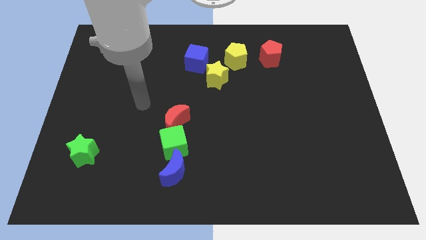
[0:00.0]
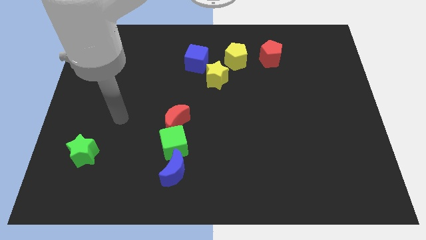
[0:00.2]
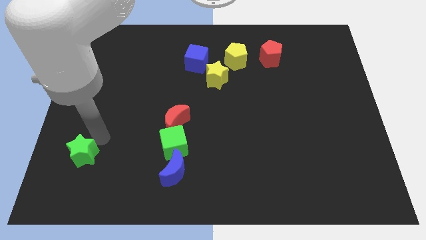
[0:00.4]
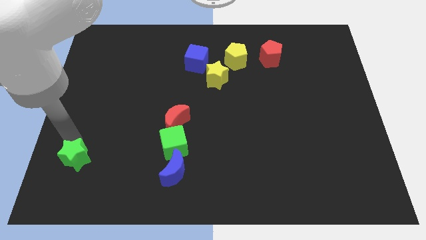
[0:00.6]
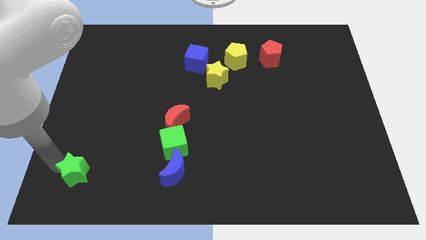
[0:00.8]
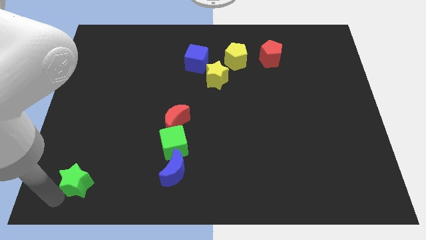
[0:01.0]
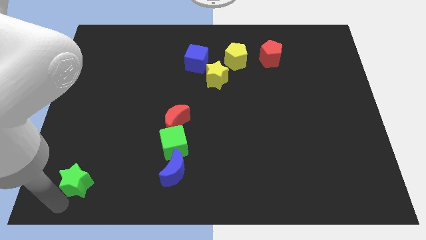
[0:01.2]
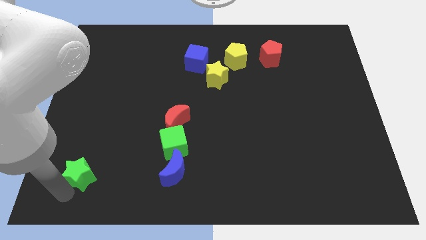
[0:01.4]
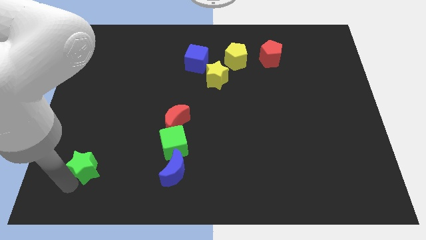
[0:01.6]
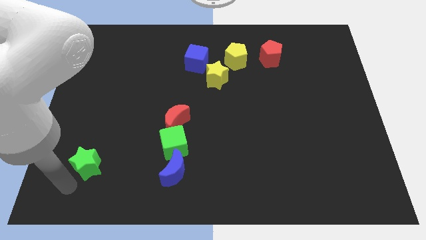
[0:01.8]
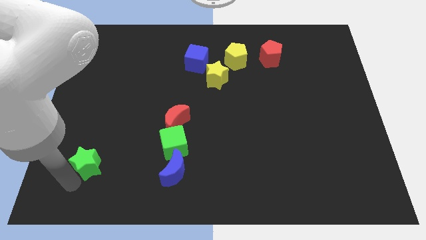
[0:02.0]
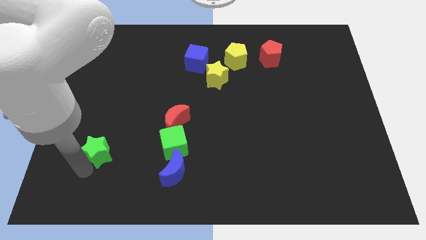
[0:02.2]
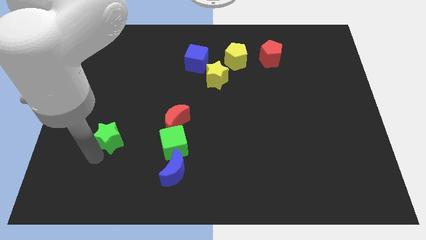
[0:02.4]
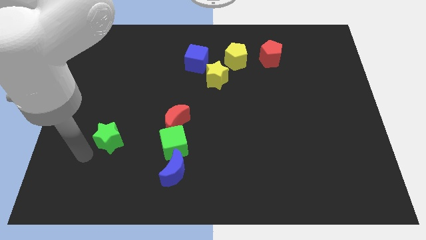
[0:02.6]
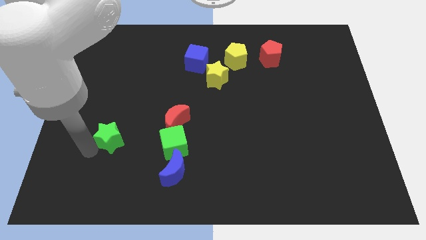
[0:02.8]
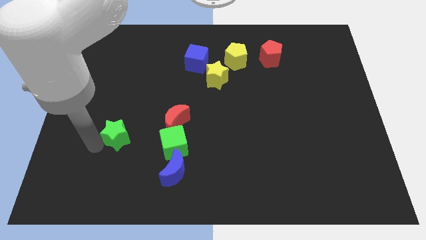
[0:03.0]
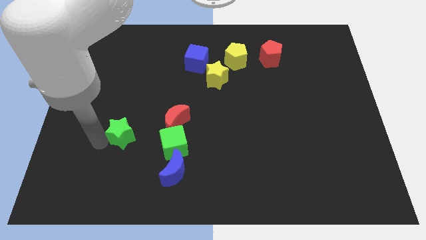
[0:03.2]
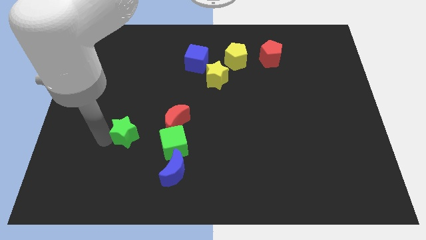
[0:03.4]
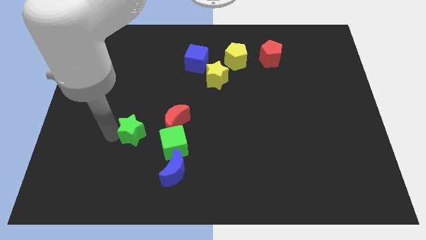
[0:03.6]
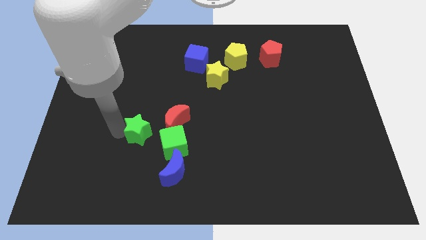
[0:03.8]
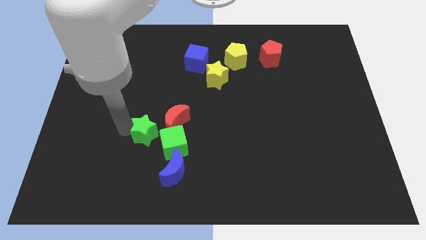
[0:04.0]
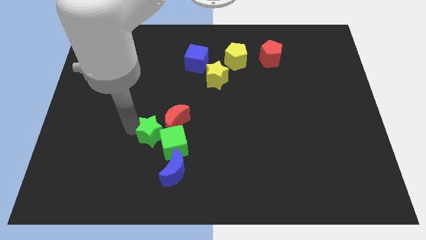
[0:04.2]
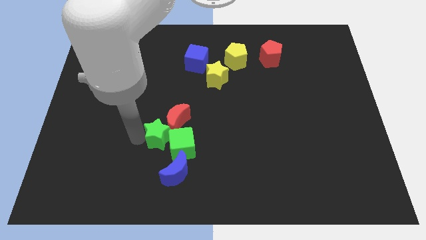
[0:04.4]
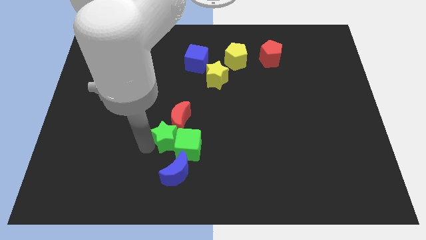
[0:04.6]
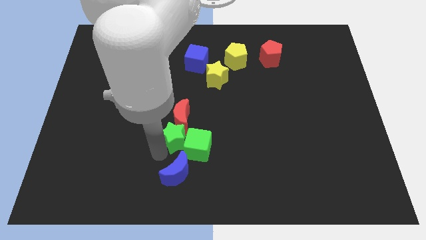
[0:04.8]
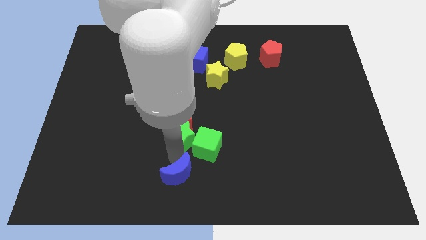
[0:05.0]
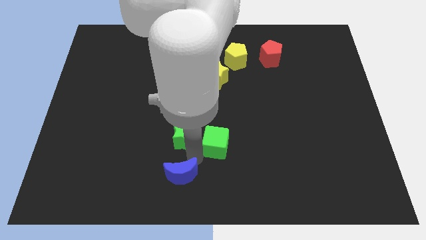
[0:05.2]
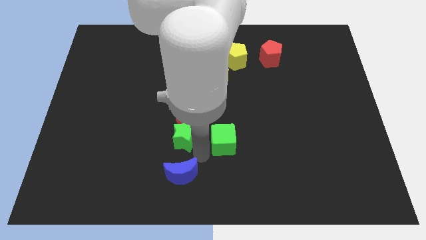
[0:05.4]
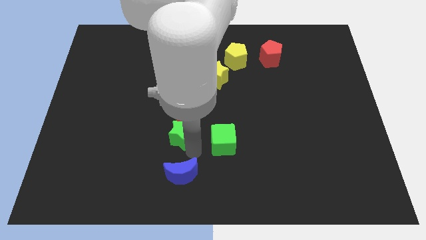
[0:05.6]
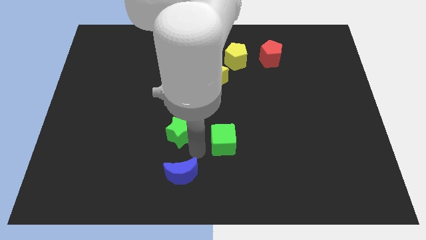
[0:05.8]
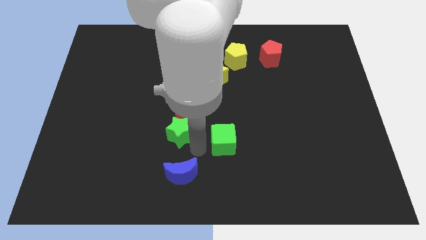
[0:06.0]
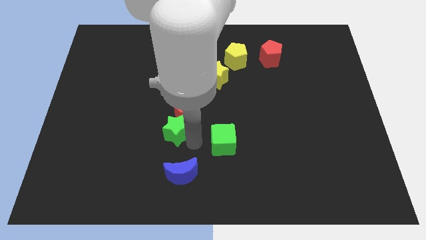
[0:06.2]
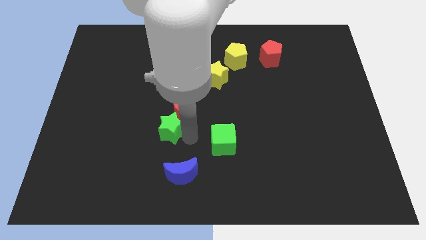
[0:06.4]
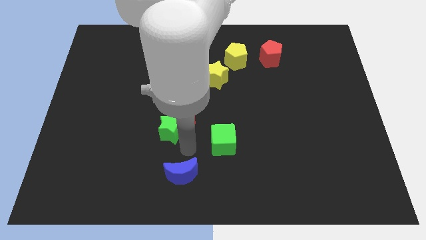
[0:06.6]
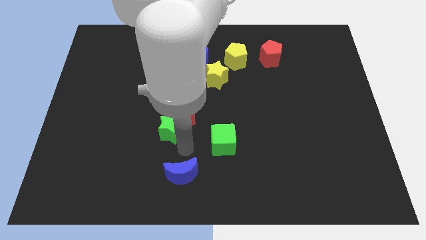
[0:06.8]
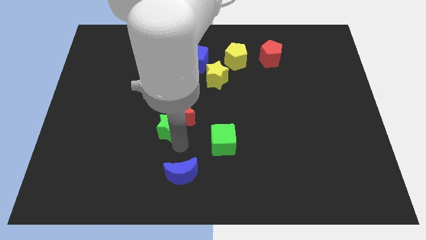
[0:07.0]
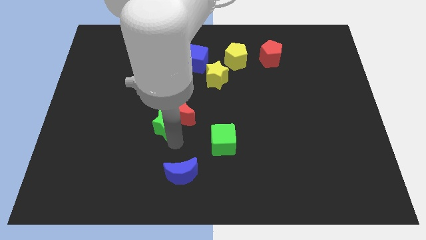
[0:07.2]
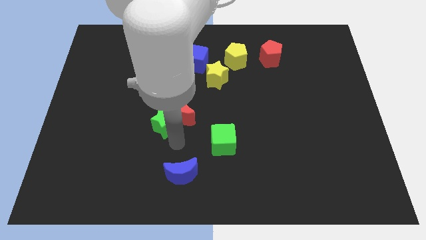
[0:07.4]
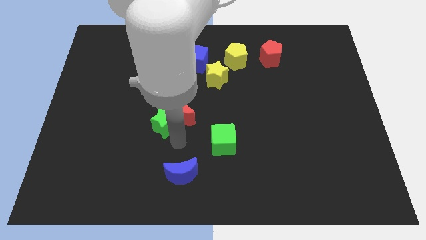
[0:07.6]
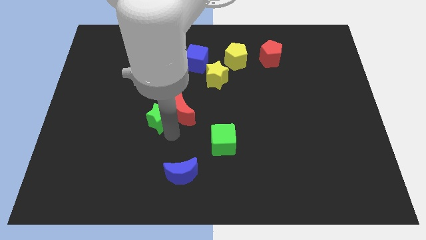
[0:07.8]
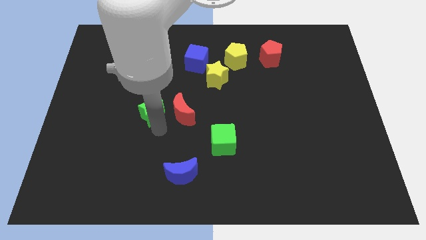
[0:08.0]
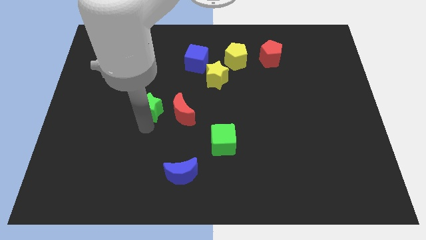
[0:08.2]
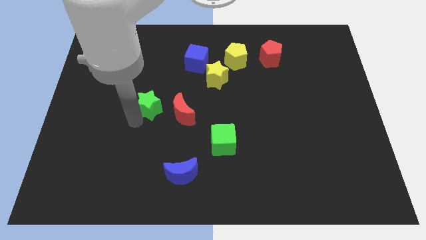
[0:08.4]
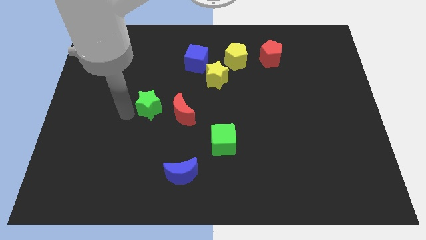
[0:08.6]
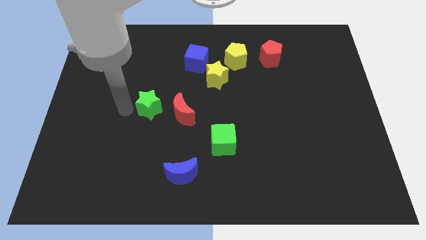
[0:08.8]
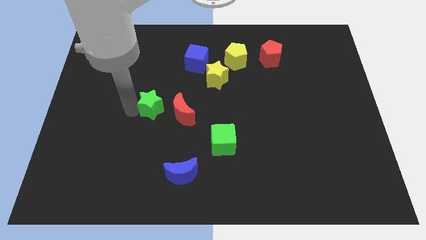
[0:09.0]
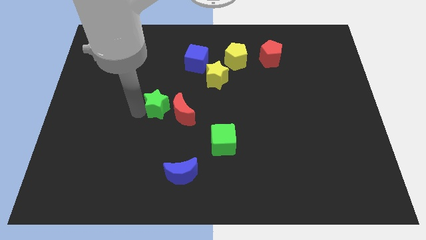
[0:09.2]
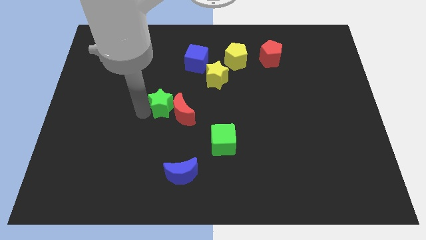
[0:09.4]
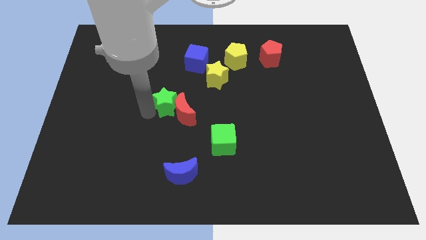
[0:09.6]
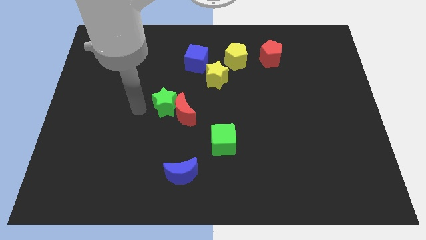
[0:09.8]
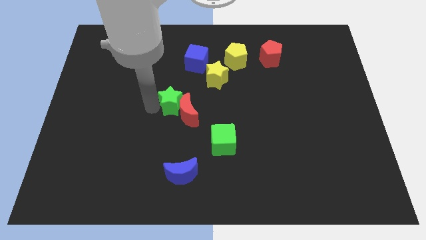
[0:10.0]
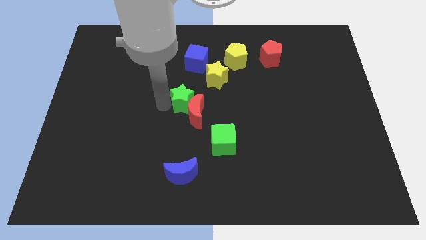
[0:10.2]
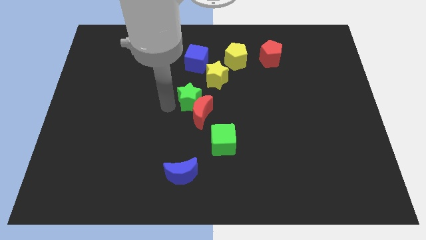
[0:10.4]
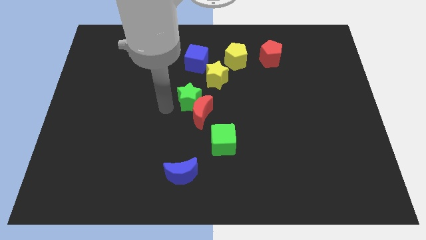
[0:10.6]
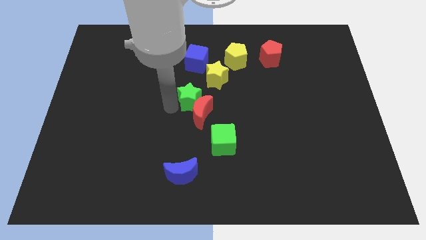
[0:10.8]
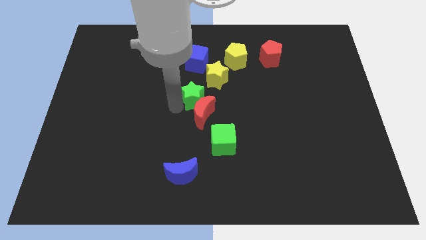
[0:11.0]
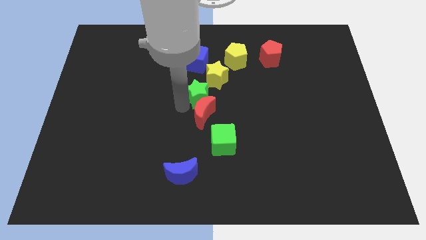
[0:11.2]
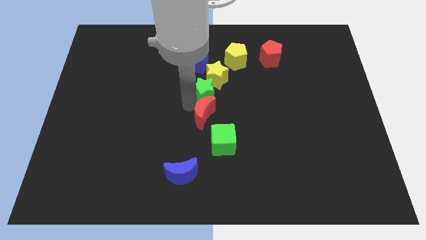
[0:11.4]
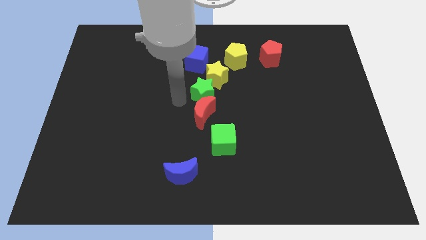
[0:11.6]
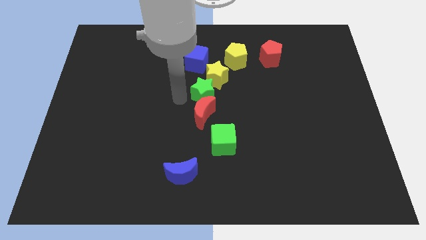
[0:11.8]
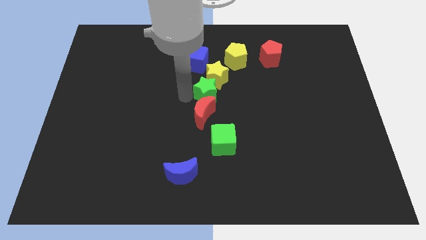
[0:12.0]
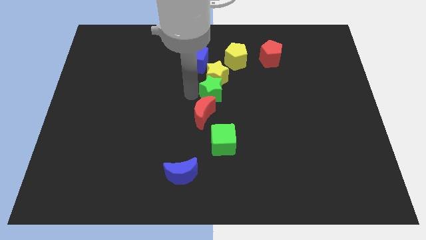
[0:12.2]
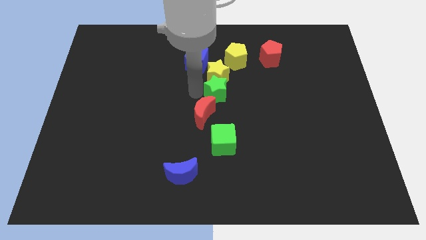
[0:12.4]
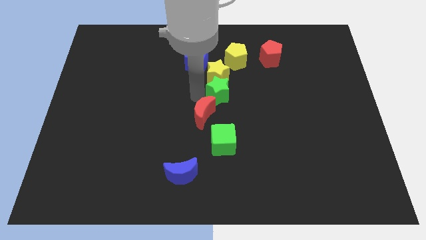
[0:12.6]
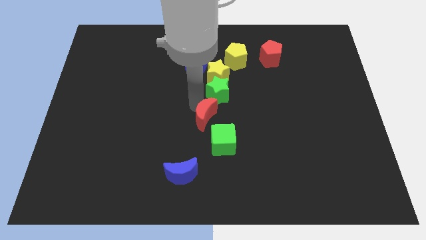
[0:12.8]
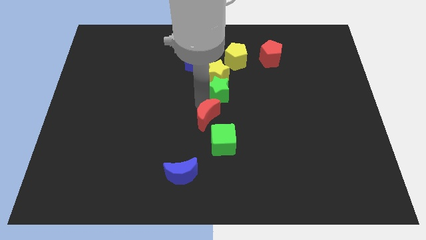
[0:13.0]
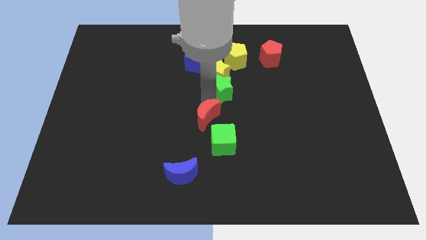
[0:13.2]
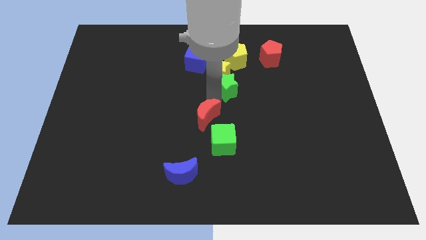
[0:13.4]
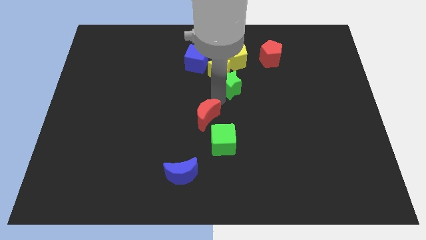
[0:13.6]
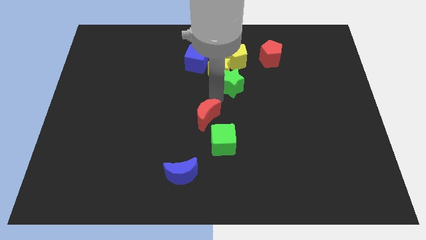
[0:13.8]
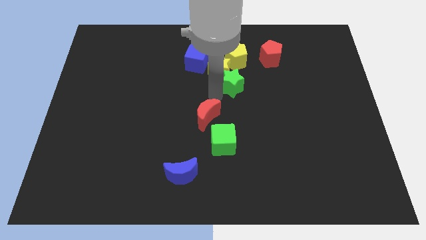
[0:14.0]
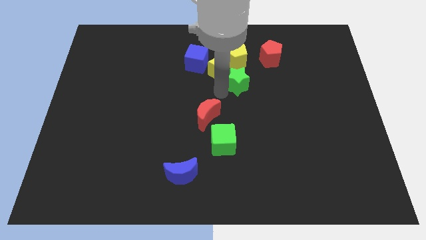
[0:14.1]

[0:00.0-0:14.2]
slide the green star to the bottom left of the red pentagon

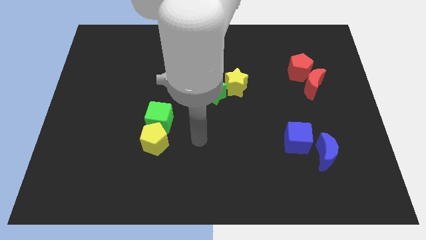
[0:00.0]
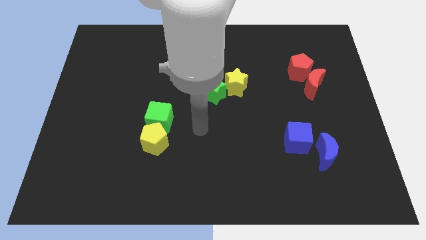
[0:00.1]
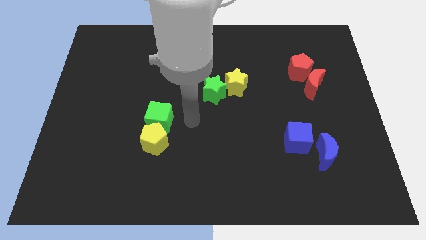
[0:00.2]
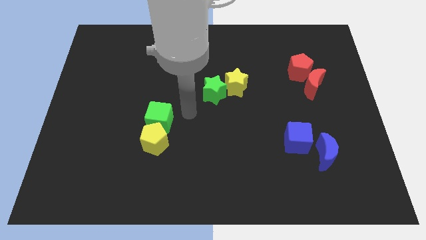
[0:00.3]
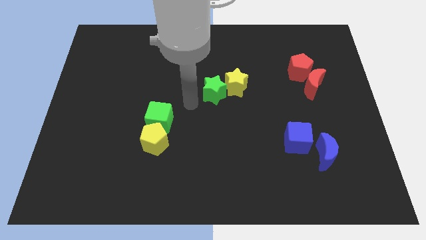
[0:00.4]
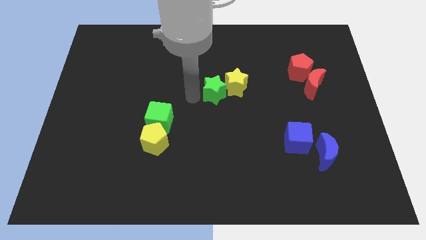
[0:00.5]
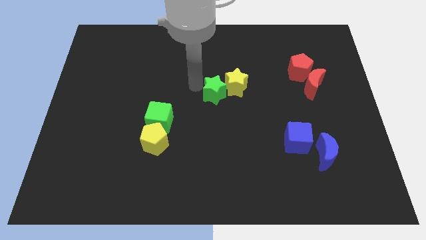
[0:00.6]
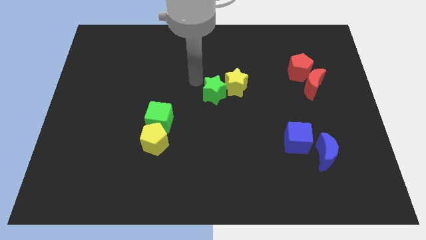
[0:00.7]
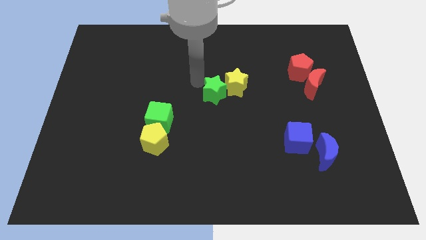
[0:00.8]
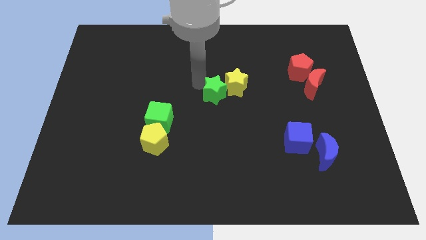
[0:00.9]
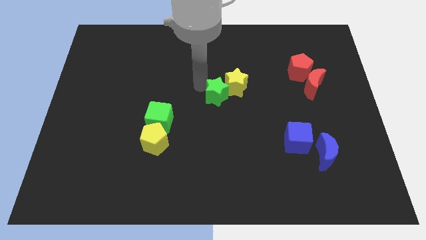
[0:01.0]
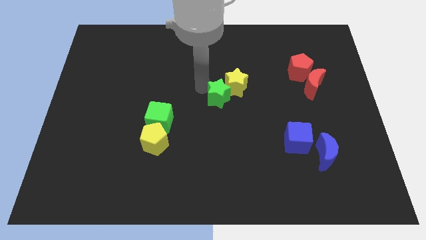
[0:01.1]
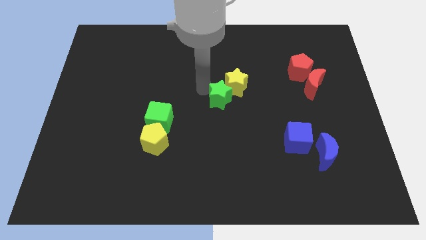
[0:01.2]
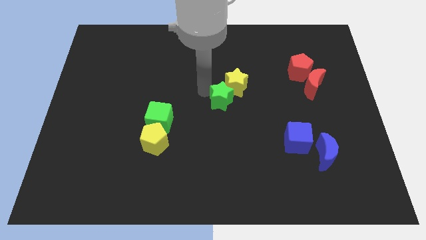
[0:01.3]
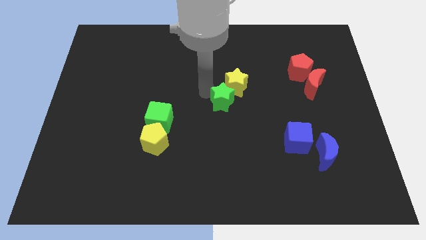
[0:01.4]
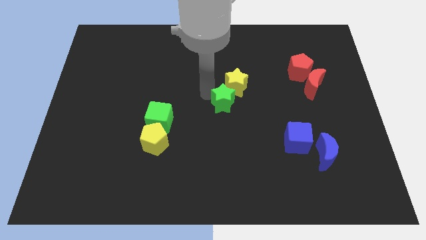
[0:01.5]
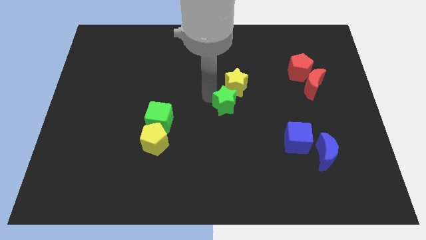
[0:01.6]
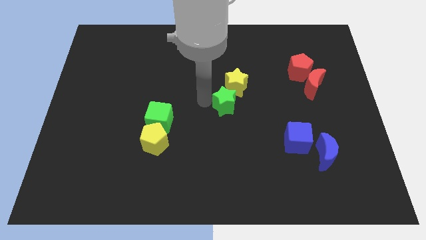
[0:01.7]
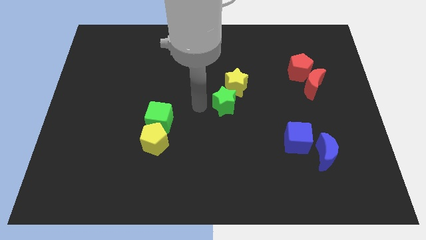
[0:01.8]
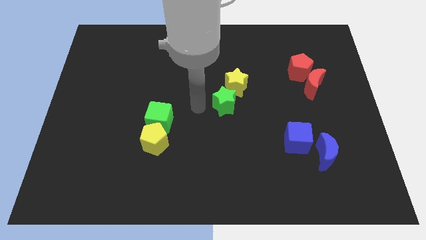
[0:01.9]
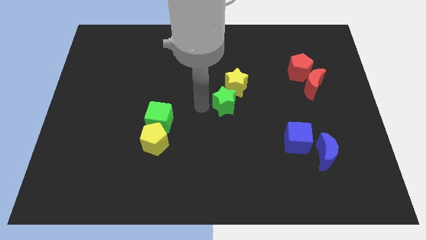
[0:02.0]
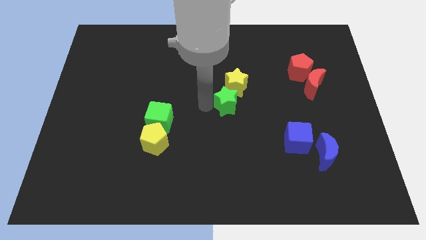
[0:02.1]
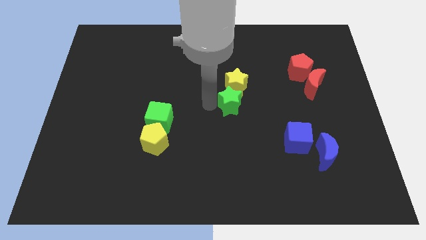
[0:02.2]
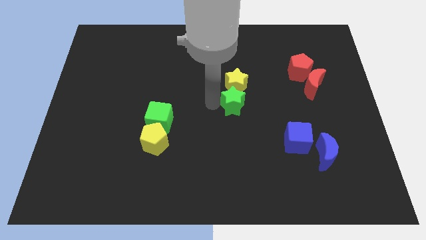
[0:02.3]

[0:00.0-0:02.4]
slide the green star to the bottom right of the yellow star
